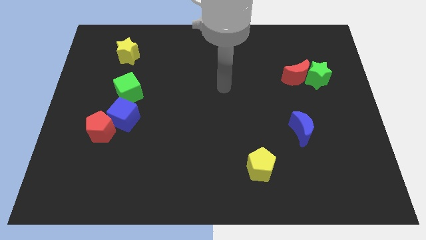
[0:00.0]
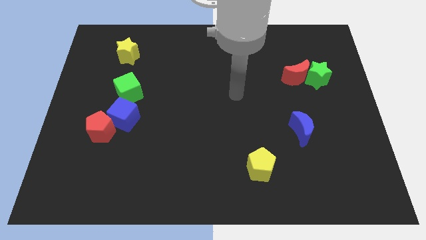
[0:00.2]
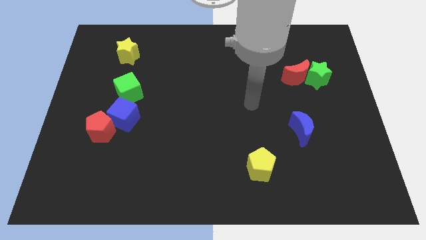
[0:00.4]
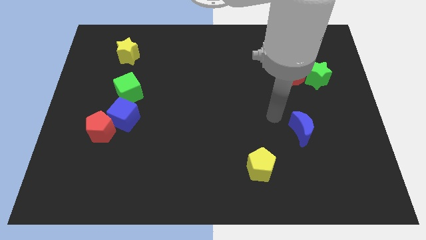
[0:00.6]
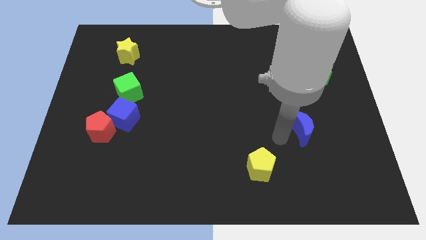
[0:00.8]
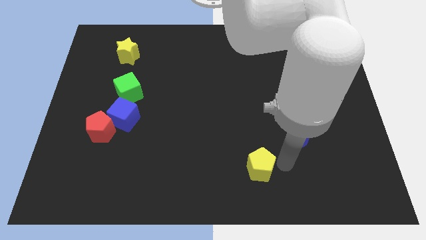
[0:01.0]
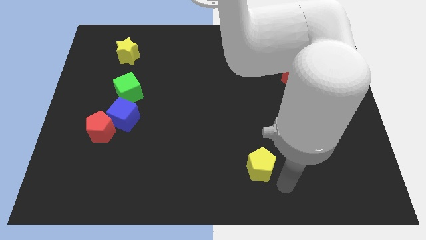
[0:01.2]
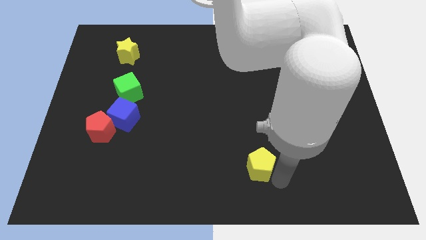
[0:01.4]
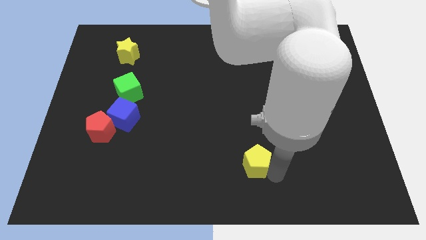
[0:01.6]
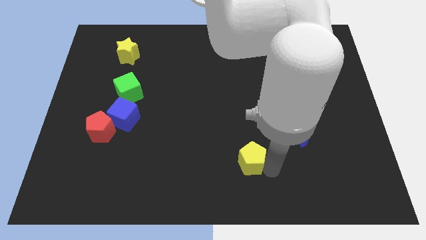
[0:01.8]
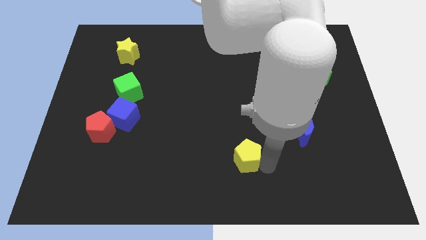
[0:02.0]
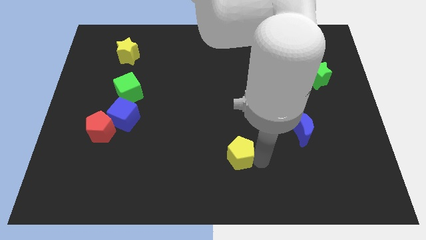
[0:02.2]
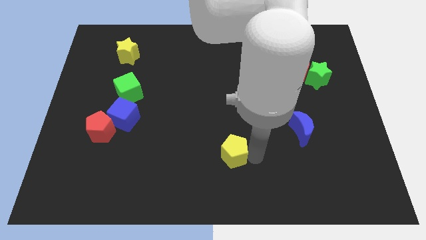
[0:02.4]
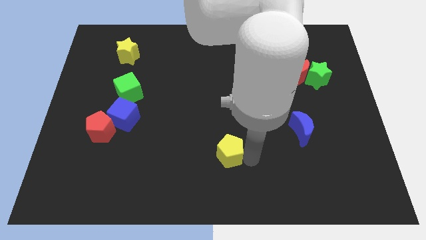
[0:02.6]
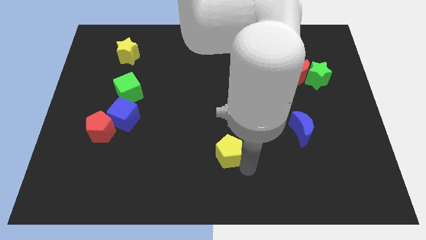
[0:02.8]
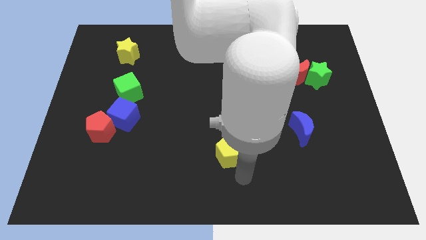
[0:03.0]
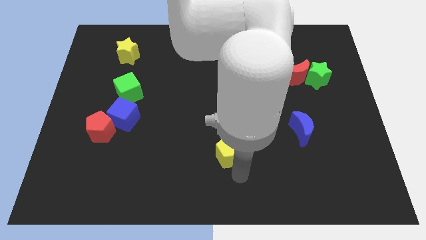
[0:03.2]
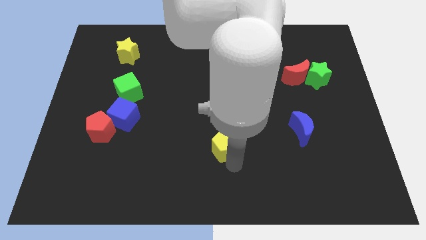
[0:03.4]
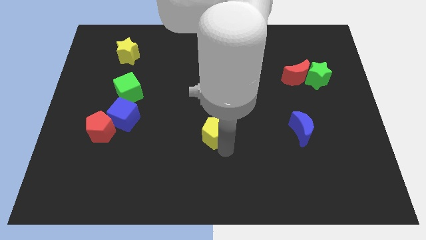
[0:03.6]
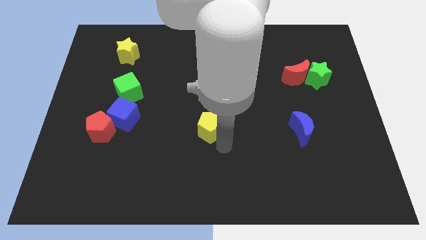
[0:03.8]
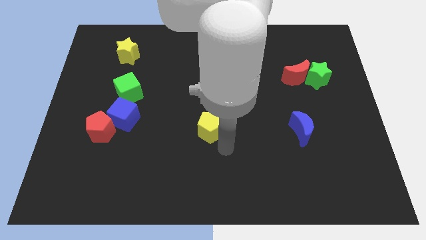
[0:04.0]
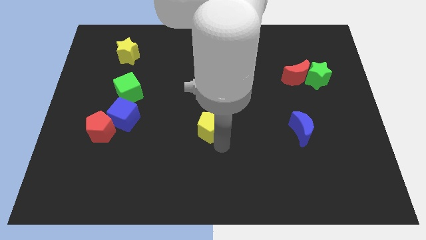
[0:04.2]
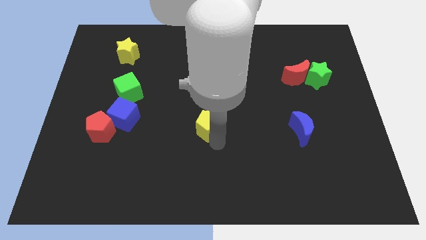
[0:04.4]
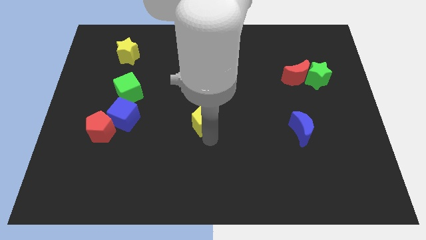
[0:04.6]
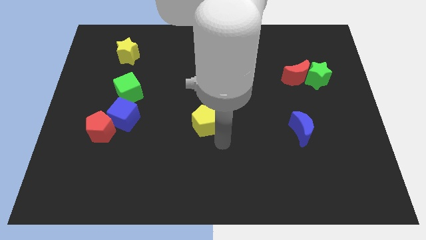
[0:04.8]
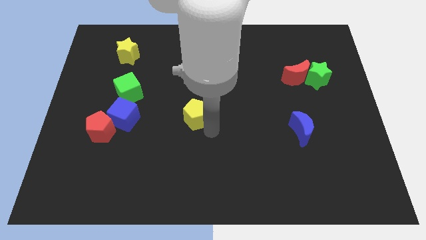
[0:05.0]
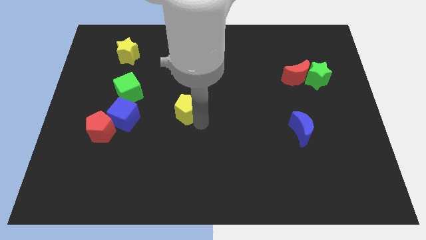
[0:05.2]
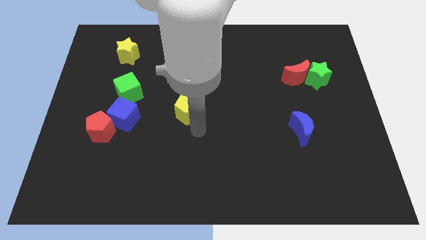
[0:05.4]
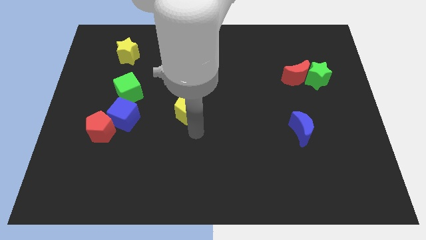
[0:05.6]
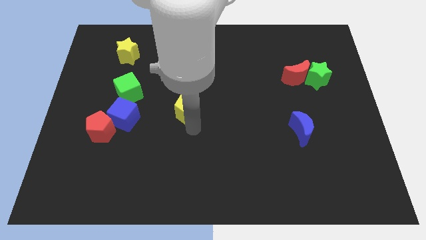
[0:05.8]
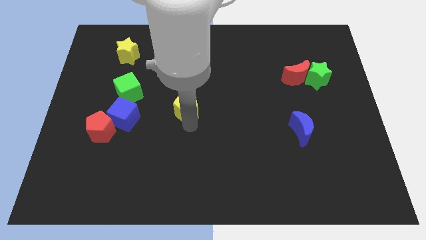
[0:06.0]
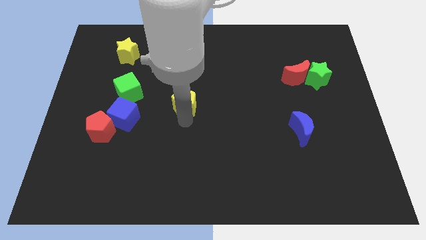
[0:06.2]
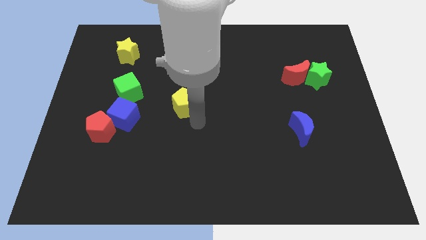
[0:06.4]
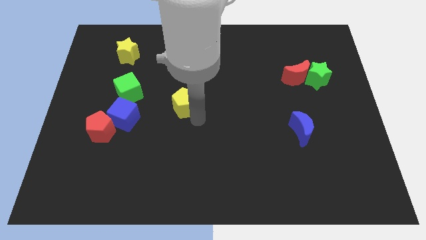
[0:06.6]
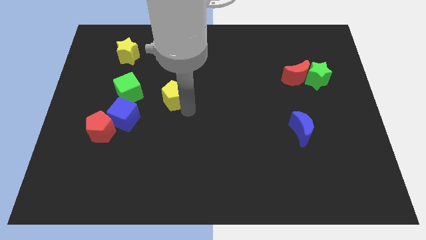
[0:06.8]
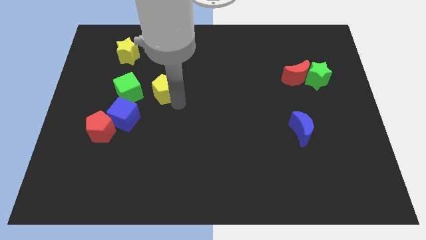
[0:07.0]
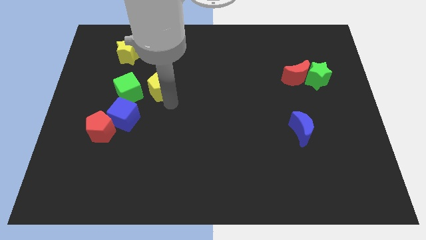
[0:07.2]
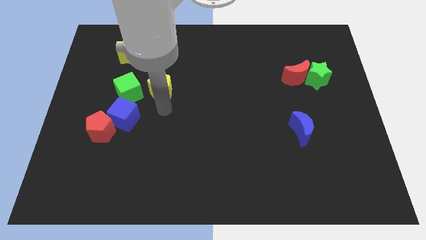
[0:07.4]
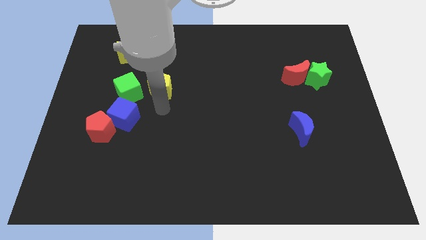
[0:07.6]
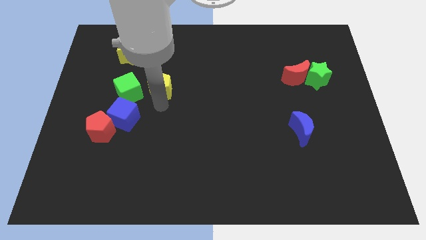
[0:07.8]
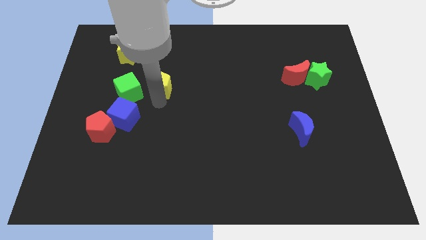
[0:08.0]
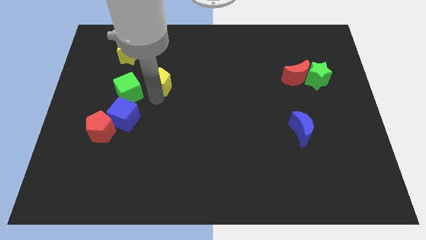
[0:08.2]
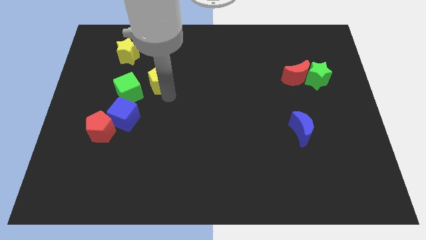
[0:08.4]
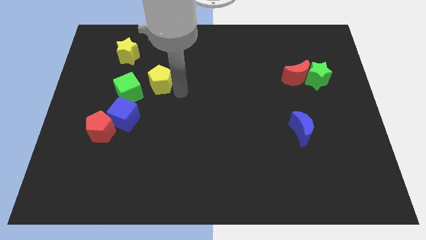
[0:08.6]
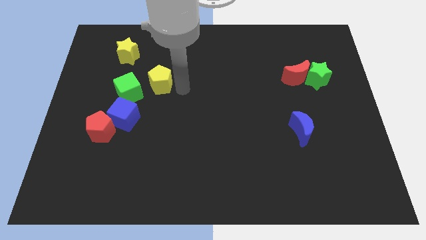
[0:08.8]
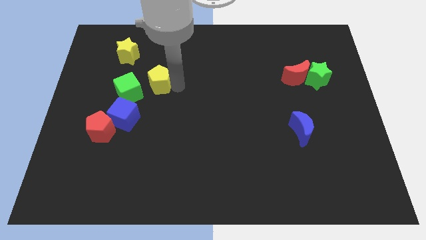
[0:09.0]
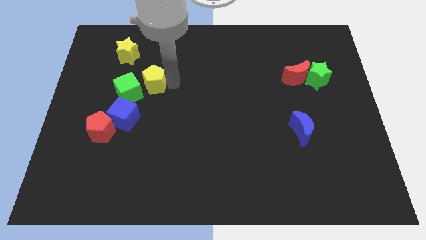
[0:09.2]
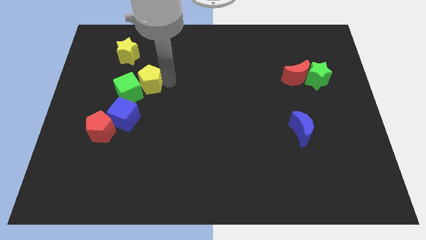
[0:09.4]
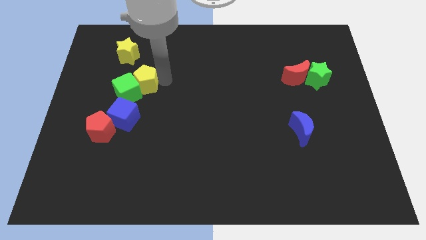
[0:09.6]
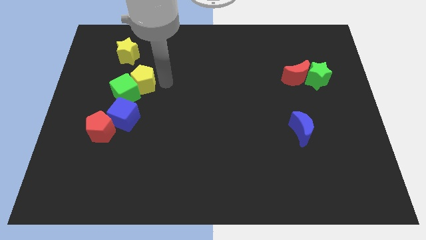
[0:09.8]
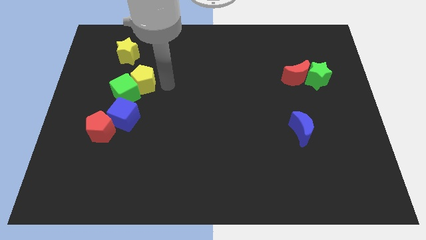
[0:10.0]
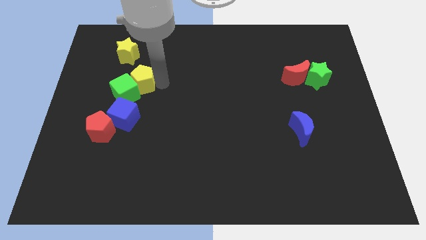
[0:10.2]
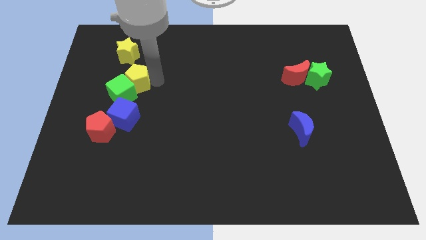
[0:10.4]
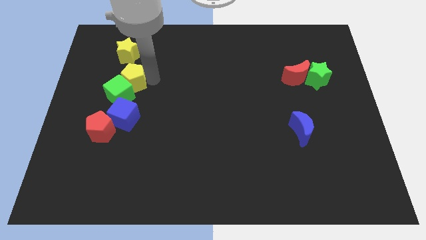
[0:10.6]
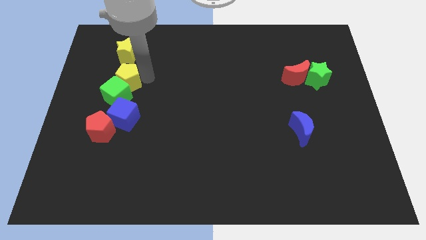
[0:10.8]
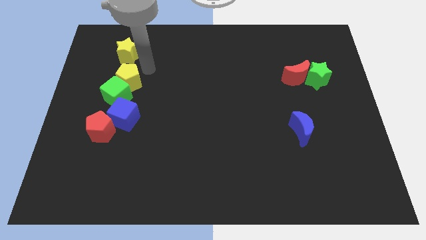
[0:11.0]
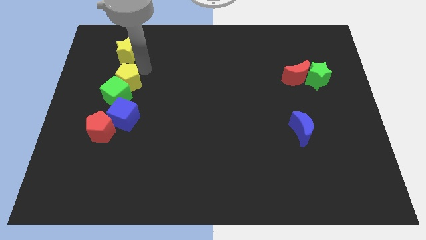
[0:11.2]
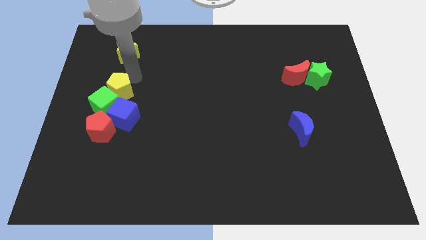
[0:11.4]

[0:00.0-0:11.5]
slide the yellow pentagon to the top left of the blue cube
